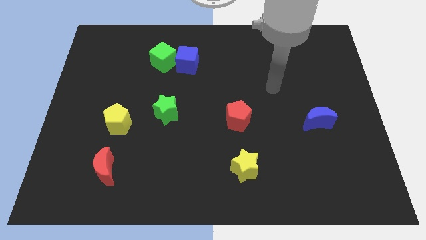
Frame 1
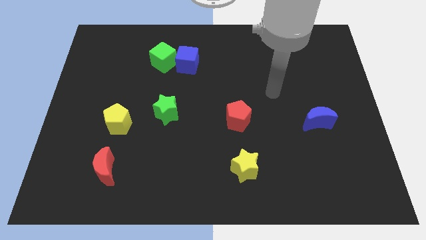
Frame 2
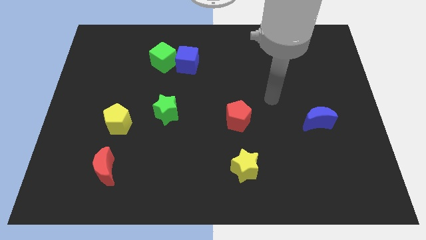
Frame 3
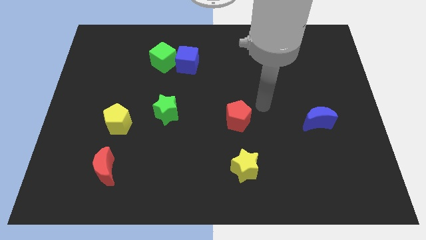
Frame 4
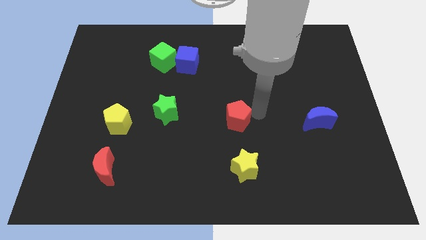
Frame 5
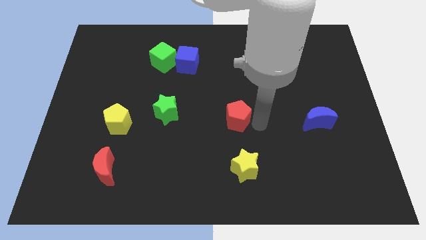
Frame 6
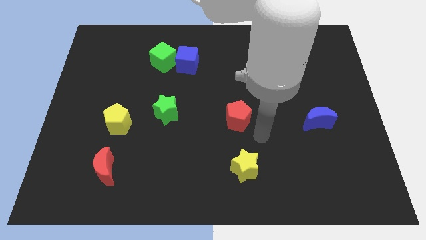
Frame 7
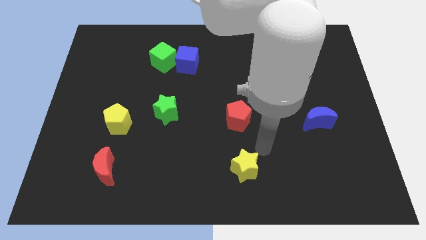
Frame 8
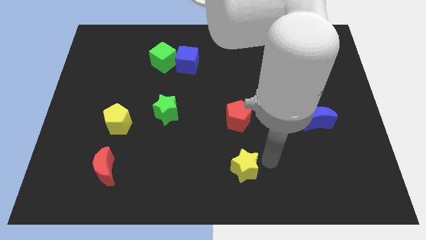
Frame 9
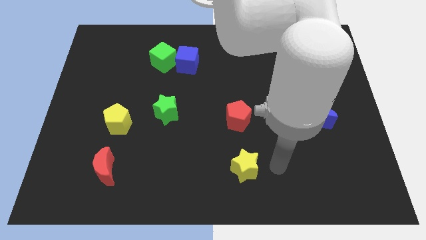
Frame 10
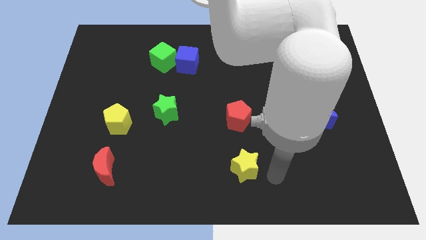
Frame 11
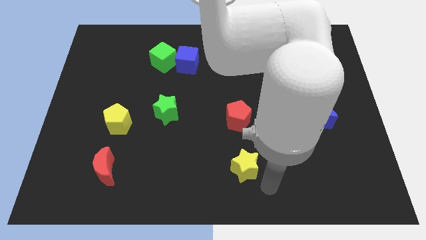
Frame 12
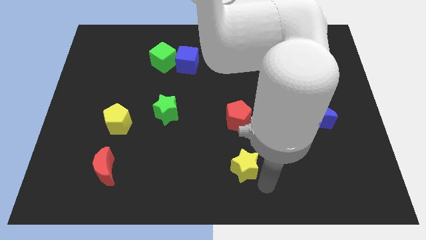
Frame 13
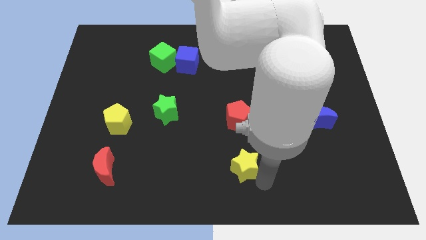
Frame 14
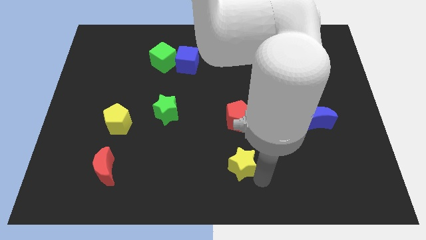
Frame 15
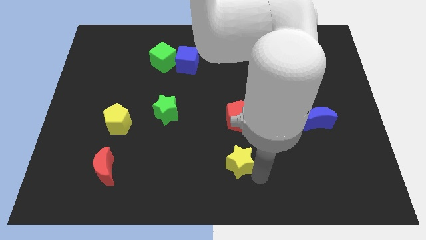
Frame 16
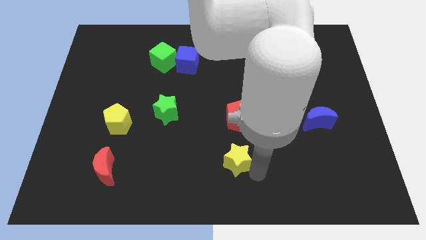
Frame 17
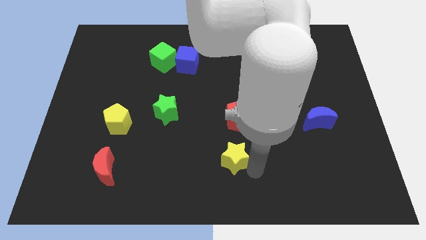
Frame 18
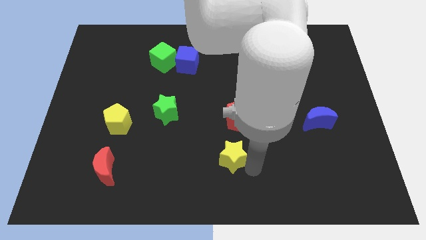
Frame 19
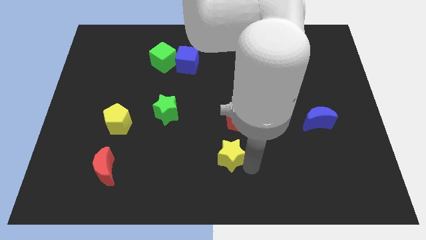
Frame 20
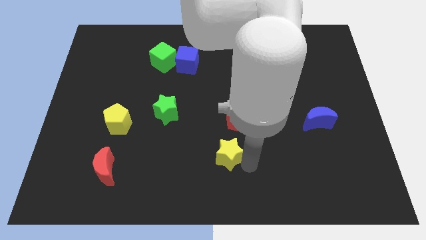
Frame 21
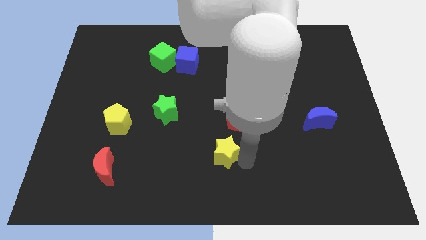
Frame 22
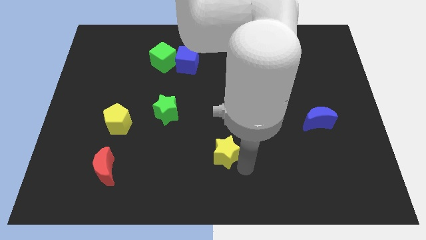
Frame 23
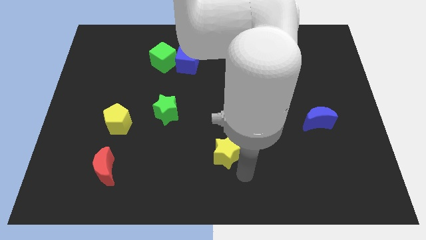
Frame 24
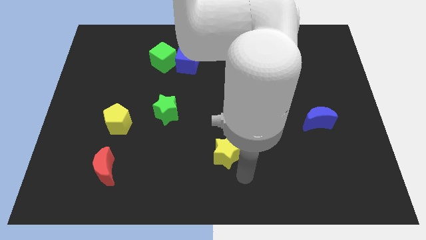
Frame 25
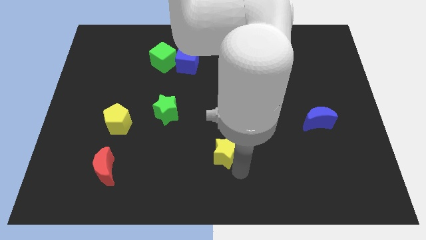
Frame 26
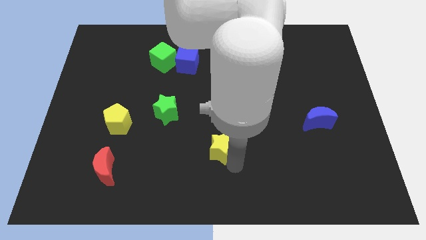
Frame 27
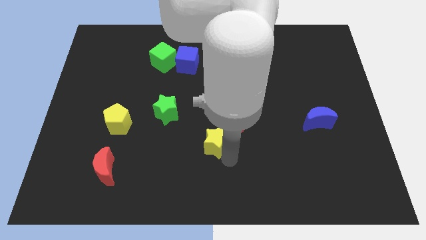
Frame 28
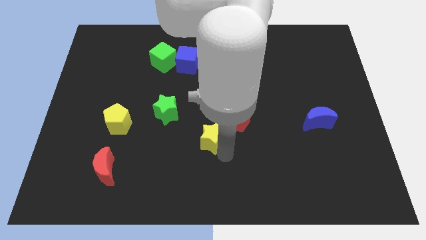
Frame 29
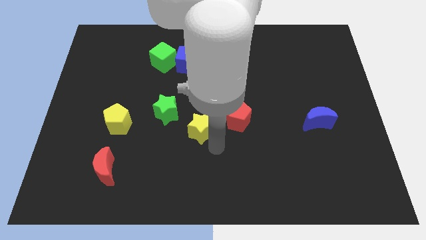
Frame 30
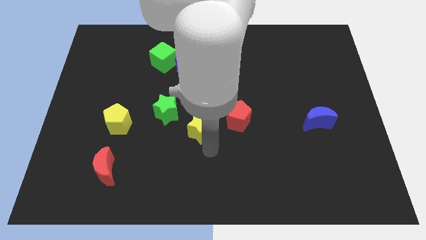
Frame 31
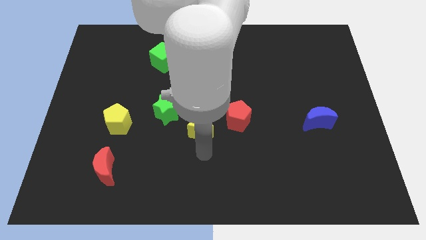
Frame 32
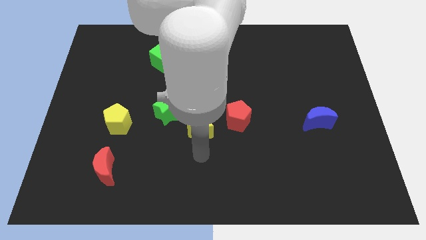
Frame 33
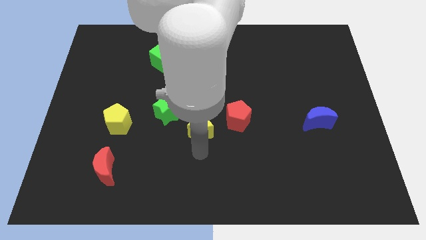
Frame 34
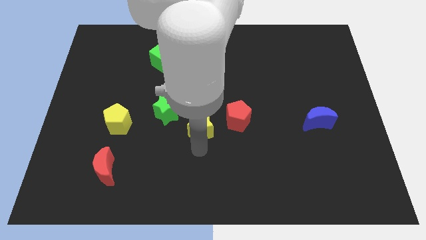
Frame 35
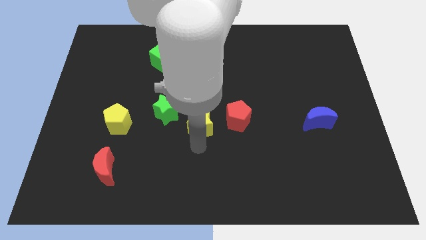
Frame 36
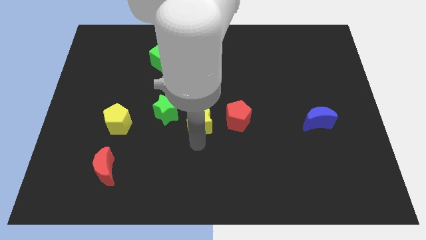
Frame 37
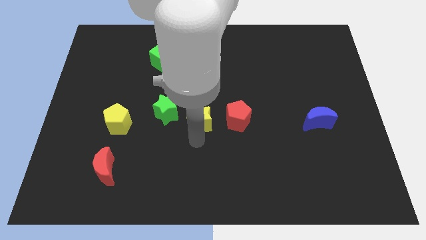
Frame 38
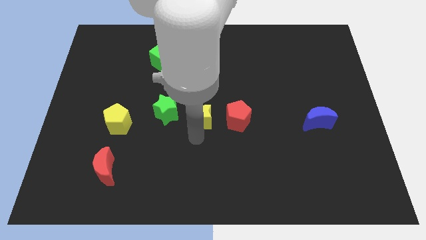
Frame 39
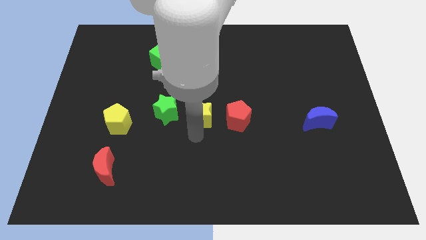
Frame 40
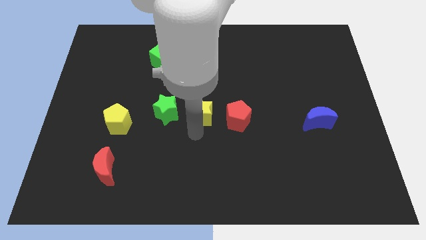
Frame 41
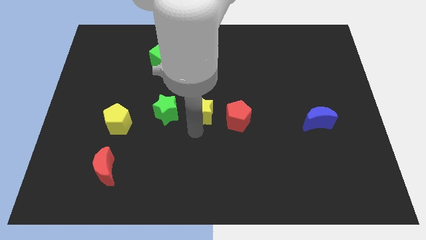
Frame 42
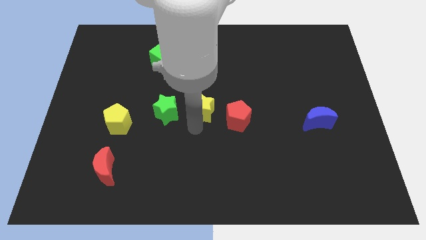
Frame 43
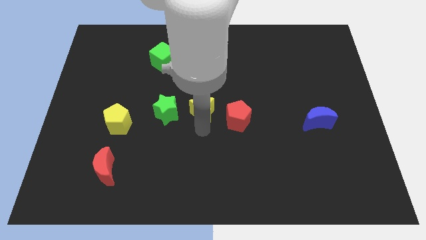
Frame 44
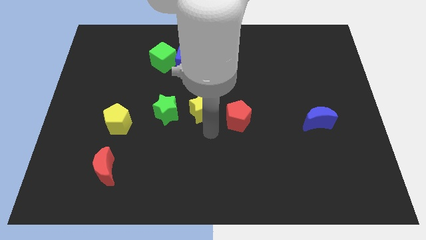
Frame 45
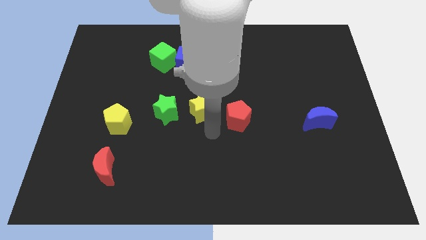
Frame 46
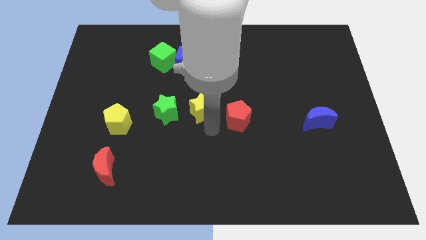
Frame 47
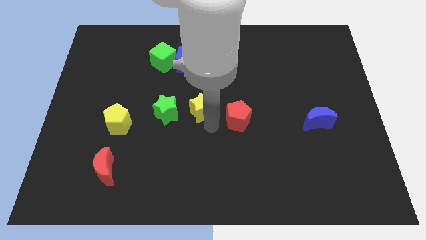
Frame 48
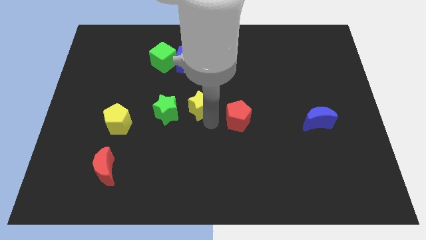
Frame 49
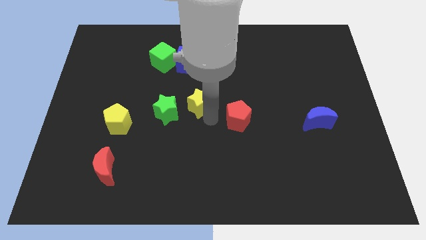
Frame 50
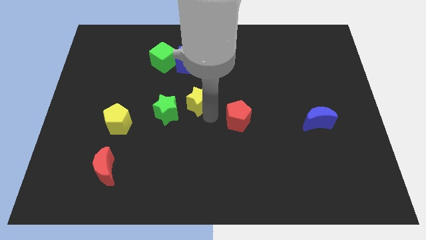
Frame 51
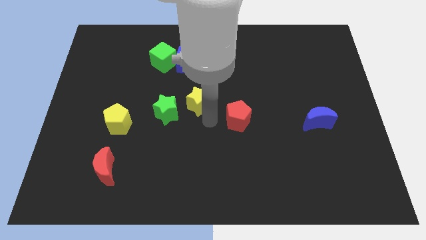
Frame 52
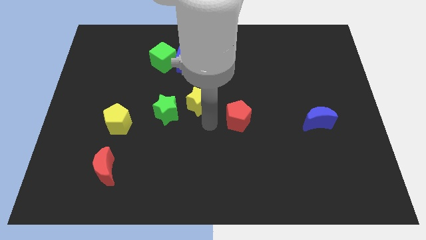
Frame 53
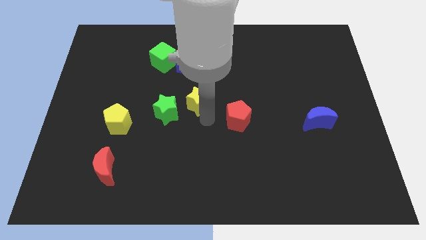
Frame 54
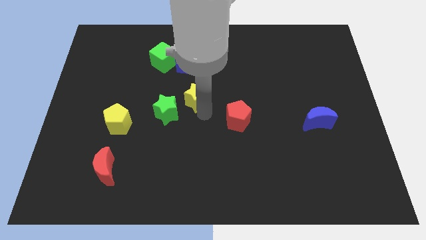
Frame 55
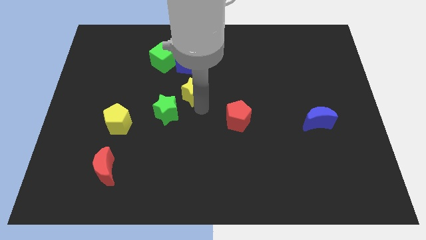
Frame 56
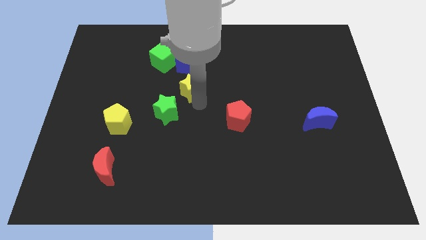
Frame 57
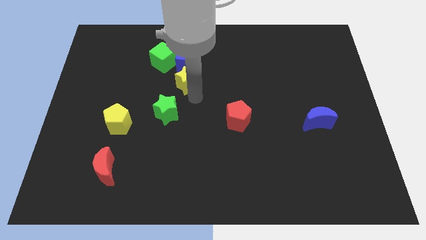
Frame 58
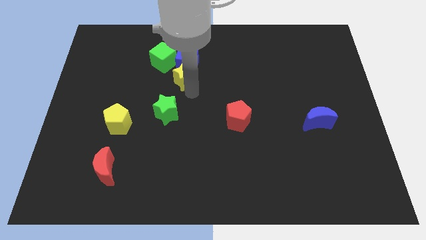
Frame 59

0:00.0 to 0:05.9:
move the yellow star to the blue cube

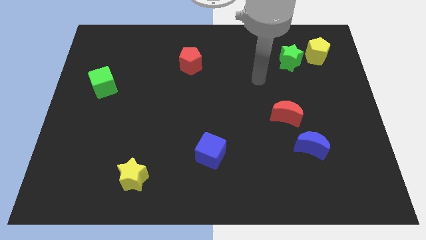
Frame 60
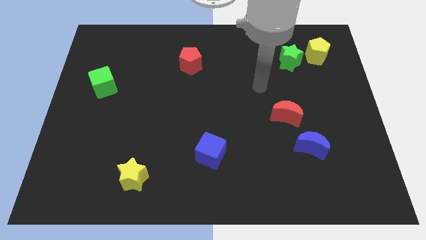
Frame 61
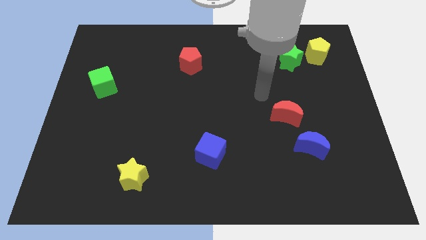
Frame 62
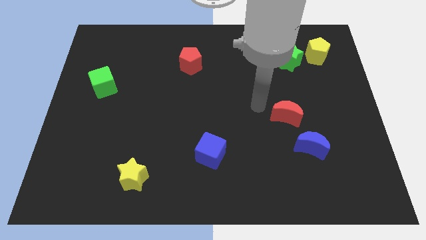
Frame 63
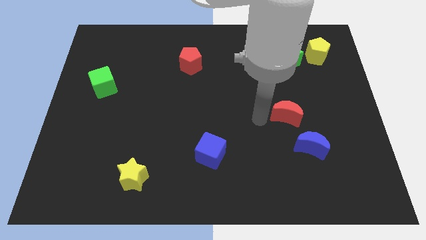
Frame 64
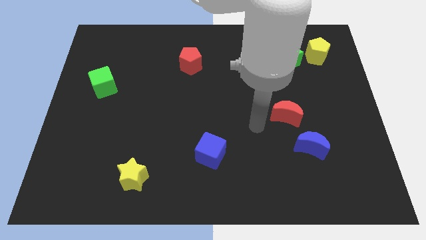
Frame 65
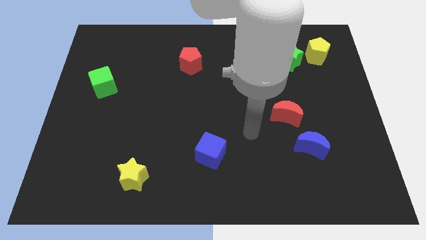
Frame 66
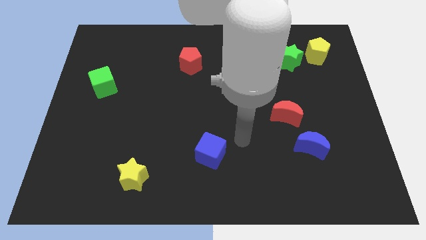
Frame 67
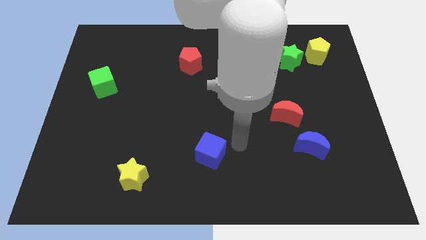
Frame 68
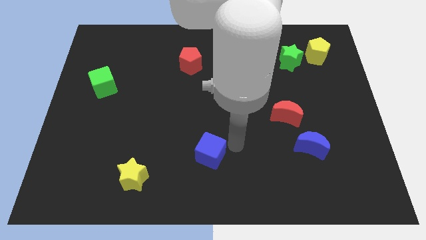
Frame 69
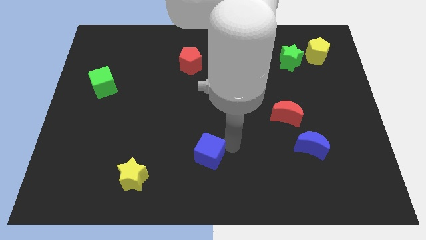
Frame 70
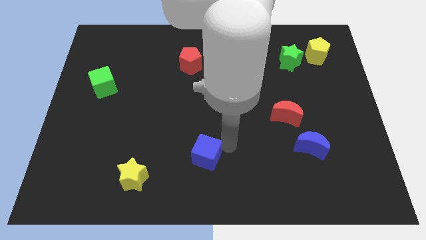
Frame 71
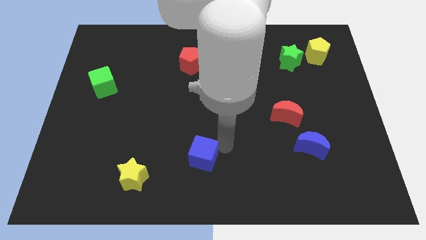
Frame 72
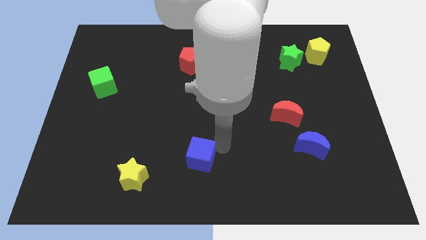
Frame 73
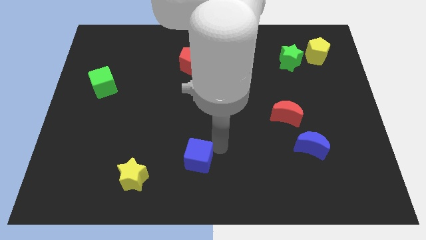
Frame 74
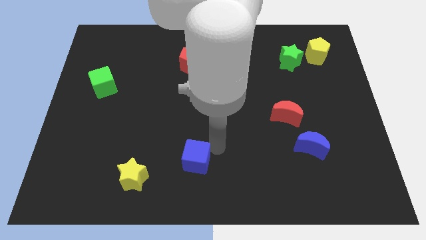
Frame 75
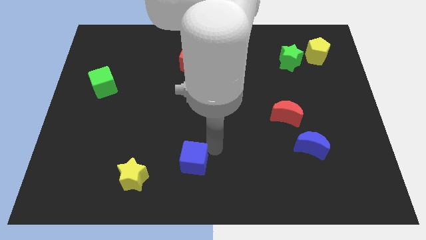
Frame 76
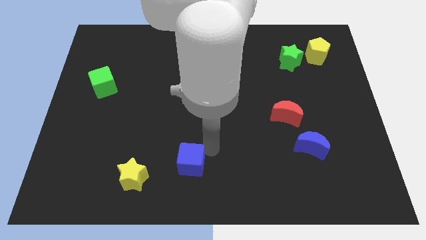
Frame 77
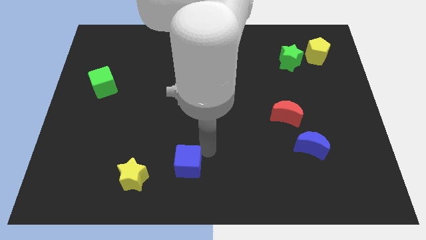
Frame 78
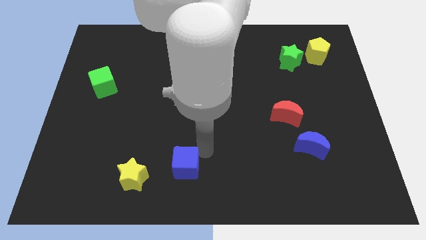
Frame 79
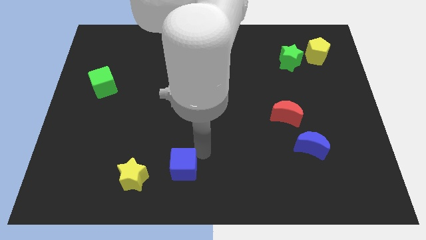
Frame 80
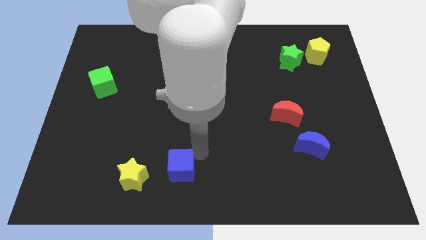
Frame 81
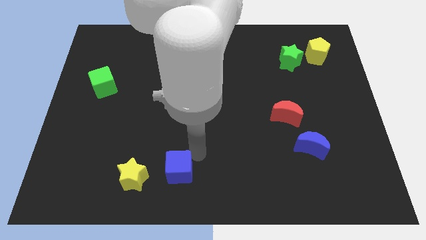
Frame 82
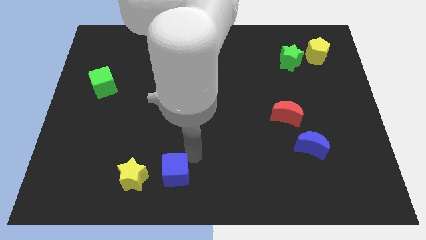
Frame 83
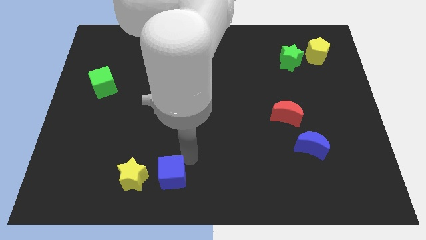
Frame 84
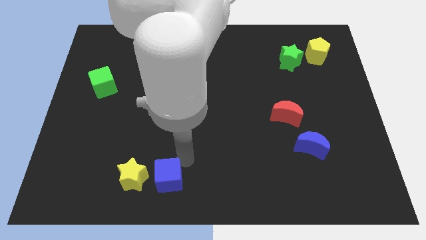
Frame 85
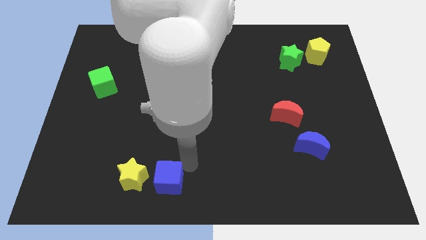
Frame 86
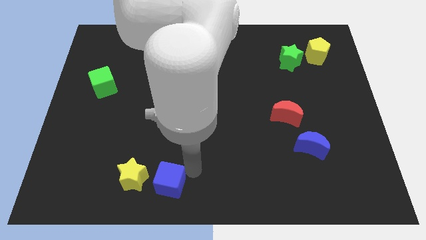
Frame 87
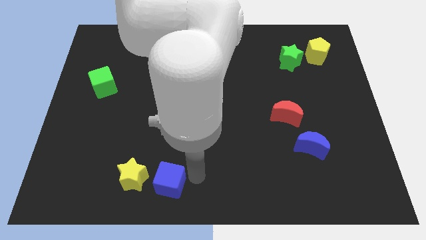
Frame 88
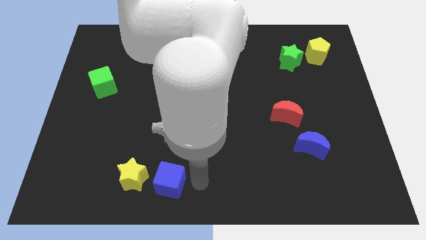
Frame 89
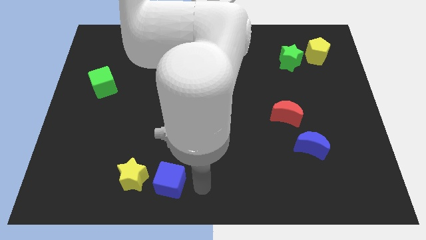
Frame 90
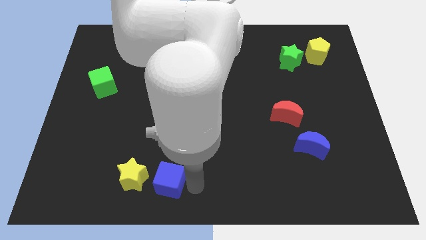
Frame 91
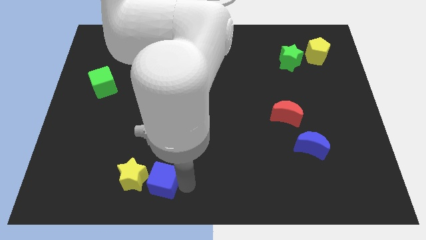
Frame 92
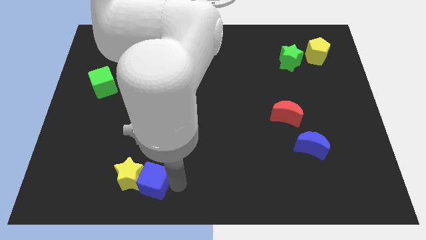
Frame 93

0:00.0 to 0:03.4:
slide the blue cube close to the yellow star
